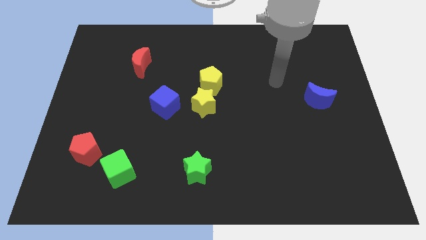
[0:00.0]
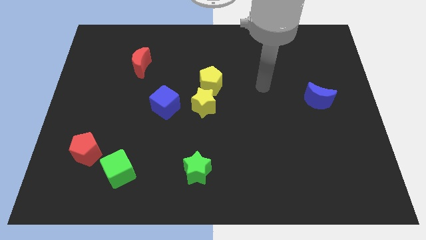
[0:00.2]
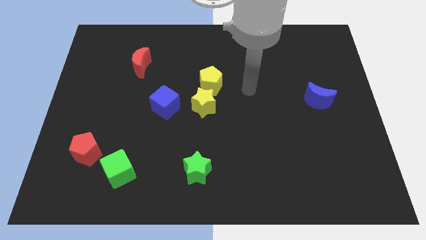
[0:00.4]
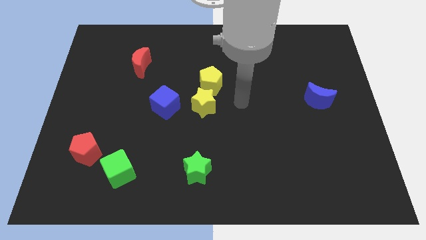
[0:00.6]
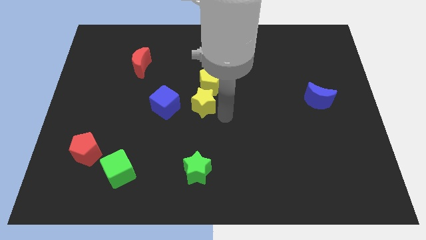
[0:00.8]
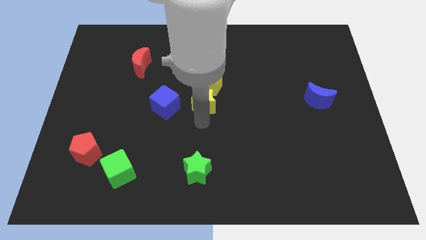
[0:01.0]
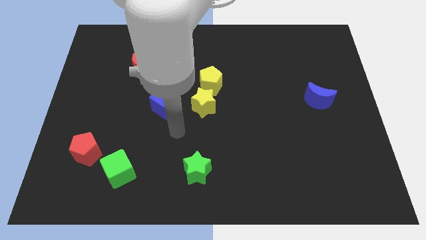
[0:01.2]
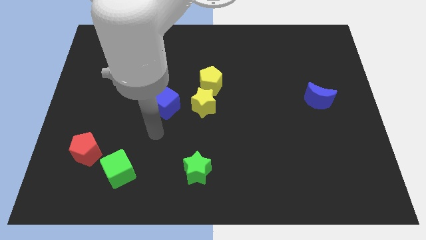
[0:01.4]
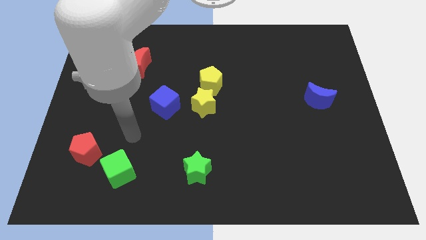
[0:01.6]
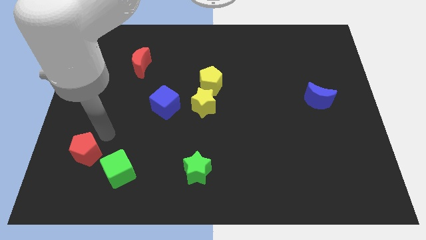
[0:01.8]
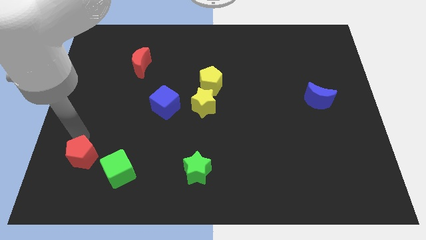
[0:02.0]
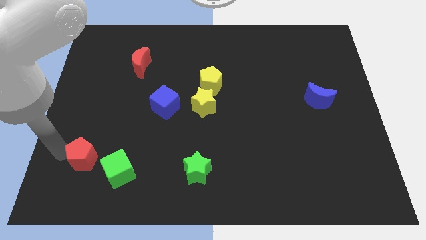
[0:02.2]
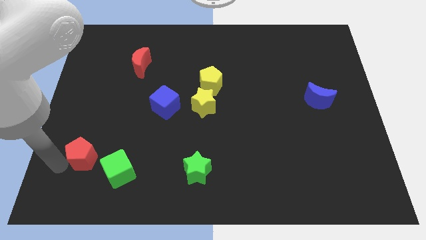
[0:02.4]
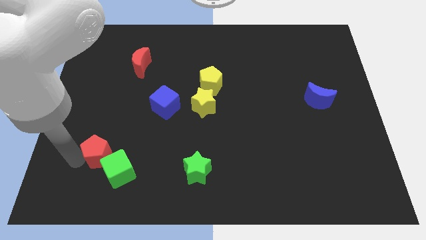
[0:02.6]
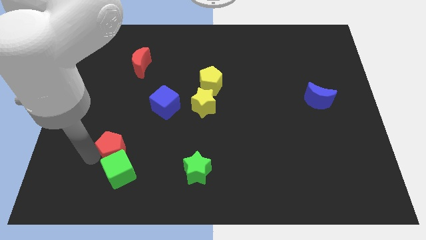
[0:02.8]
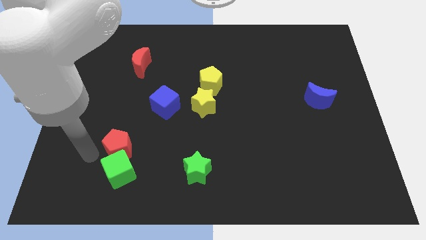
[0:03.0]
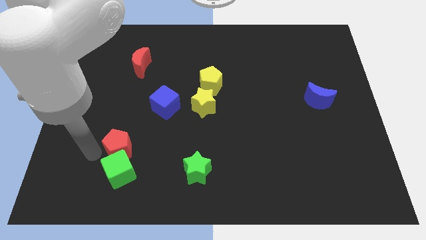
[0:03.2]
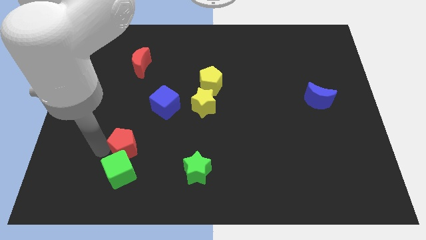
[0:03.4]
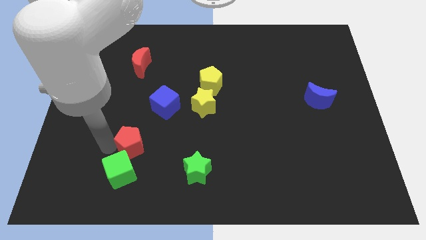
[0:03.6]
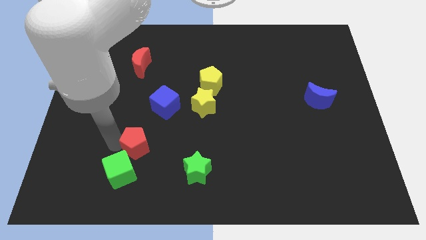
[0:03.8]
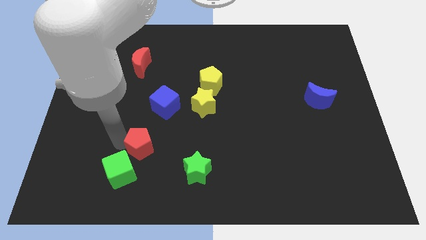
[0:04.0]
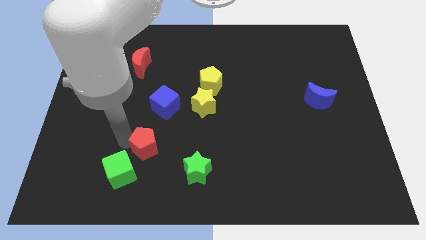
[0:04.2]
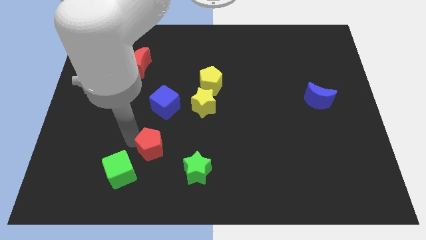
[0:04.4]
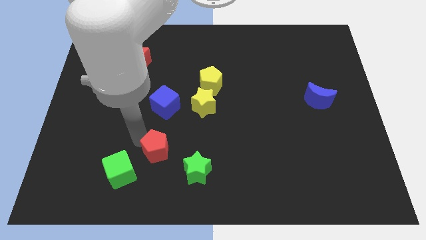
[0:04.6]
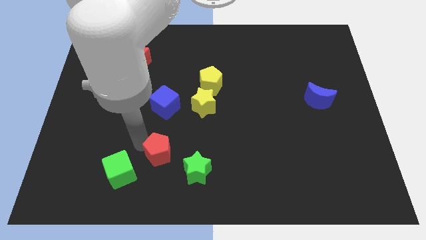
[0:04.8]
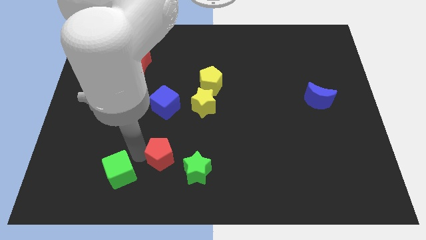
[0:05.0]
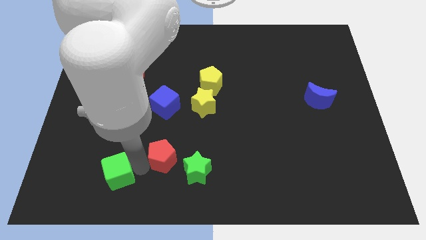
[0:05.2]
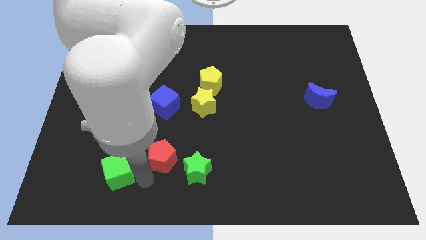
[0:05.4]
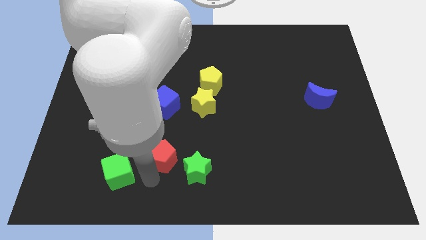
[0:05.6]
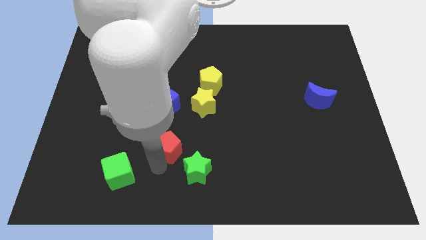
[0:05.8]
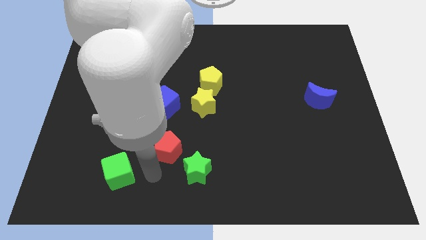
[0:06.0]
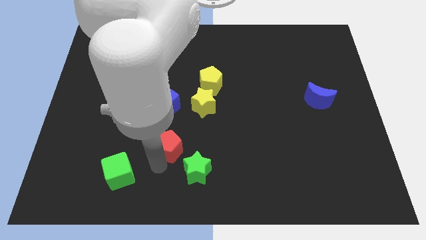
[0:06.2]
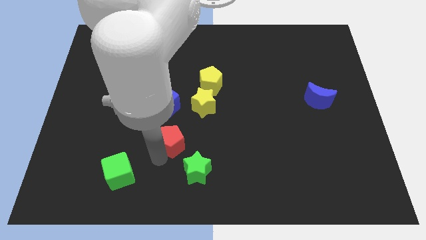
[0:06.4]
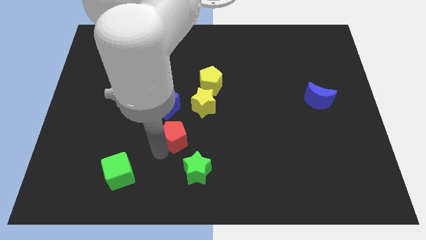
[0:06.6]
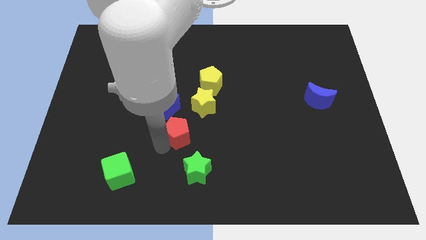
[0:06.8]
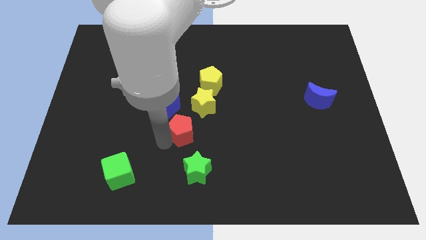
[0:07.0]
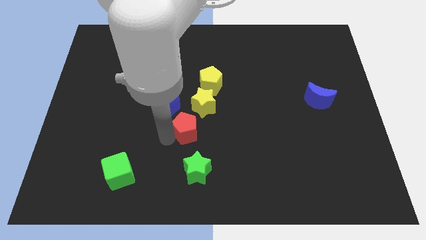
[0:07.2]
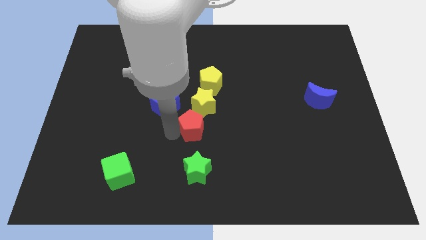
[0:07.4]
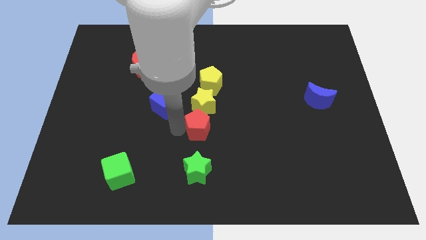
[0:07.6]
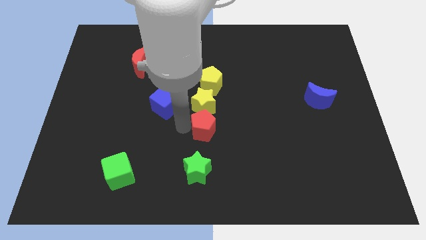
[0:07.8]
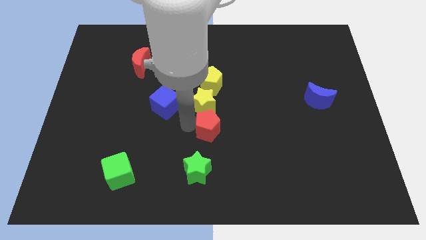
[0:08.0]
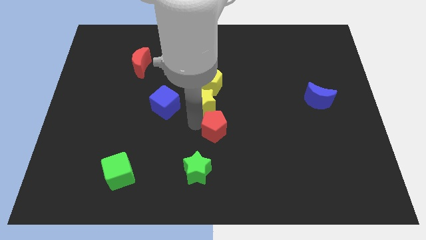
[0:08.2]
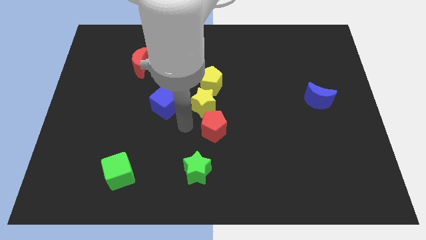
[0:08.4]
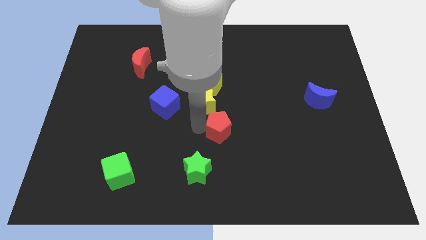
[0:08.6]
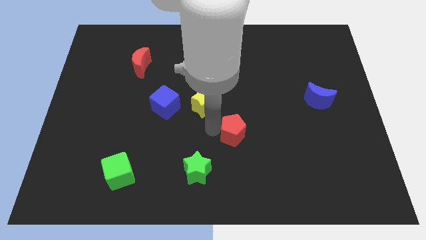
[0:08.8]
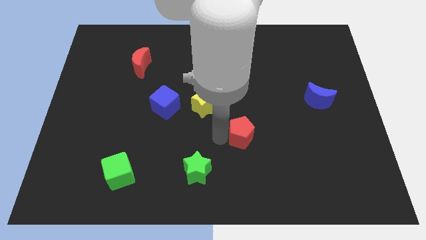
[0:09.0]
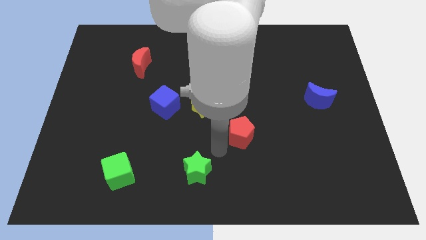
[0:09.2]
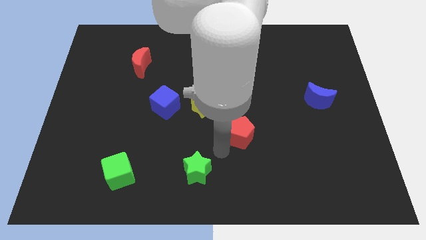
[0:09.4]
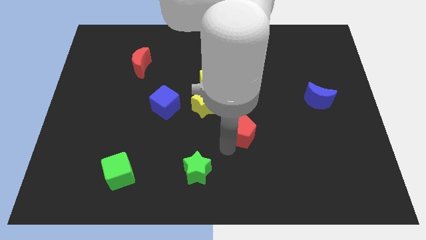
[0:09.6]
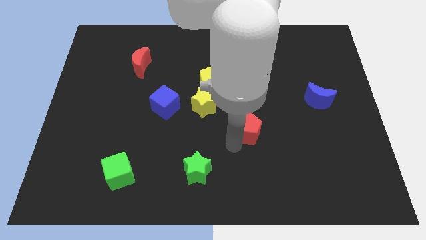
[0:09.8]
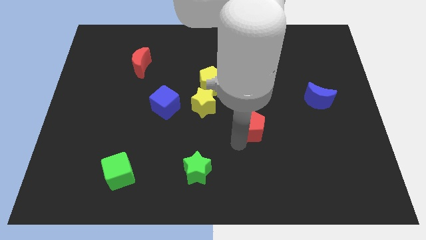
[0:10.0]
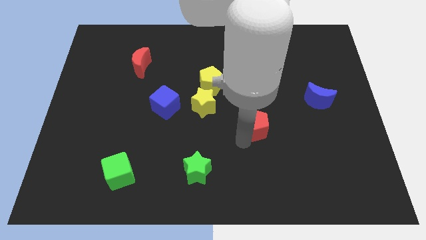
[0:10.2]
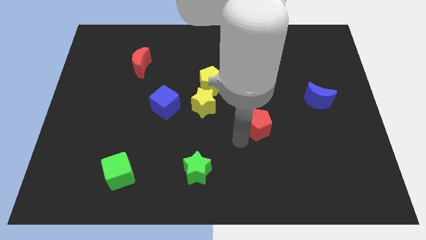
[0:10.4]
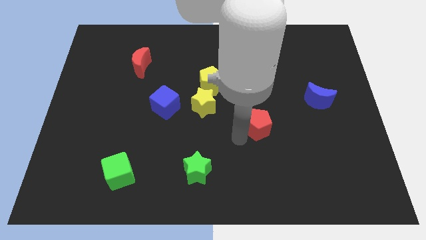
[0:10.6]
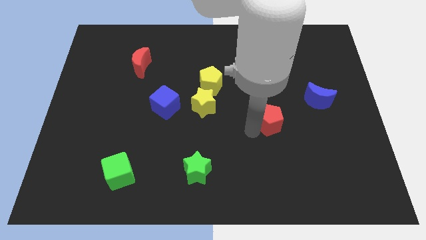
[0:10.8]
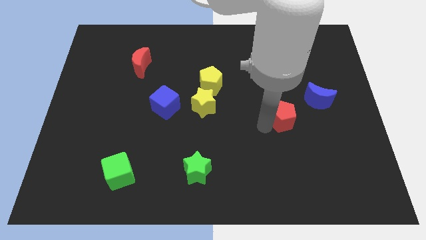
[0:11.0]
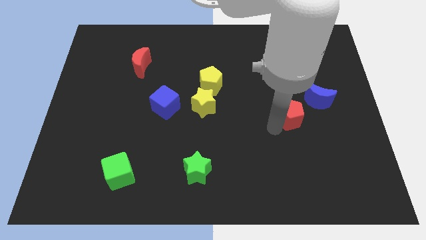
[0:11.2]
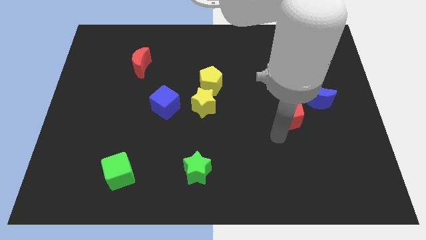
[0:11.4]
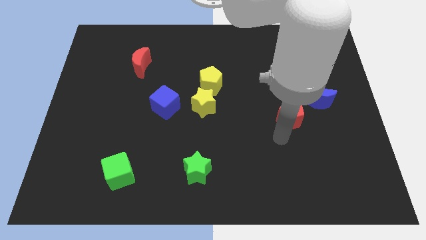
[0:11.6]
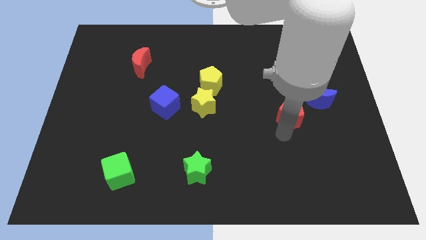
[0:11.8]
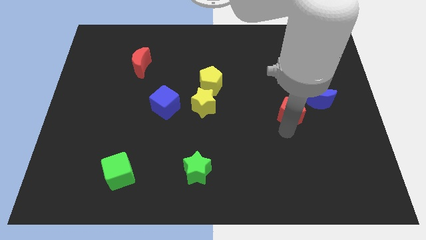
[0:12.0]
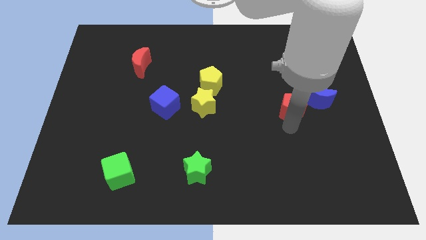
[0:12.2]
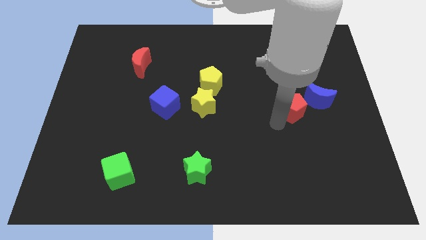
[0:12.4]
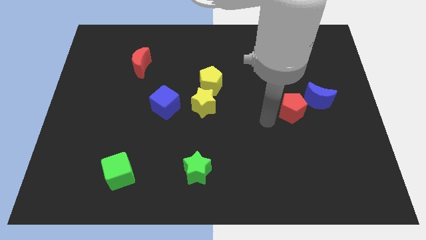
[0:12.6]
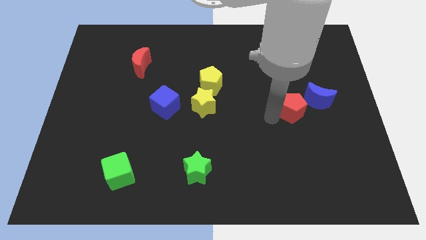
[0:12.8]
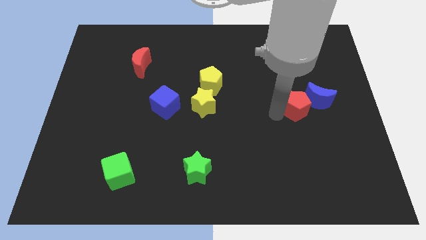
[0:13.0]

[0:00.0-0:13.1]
move the red pentagon to the blue moon

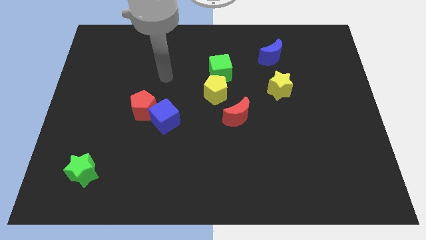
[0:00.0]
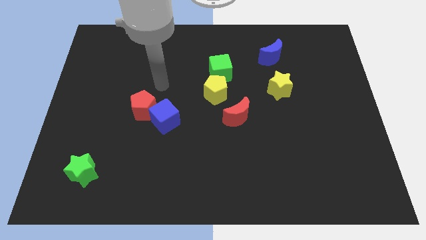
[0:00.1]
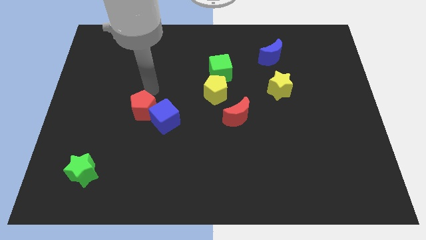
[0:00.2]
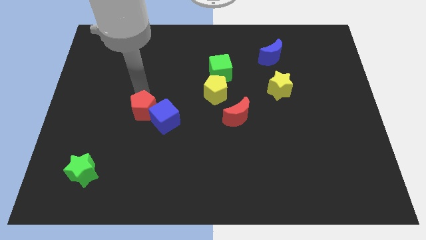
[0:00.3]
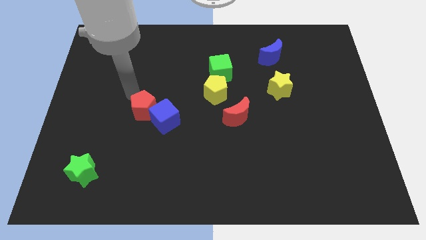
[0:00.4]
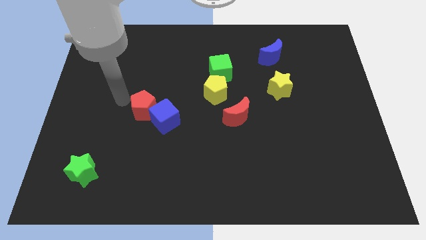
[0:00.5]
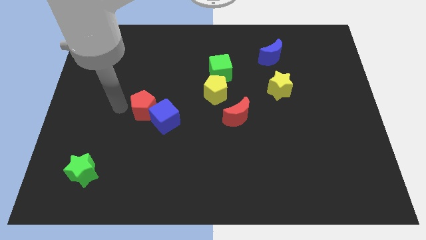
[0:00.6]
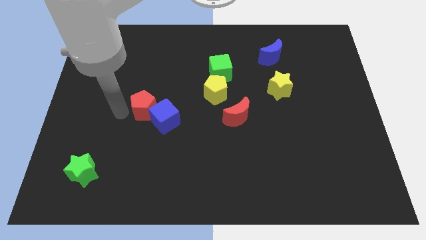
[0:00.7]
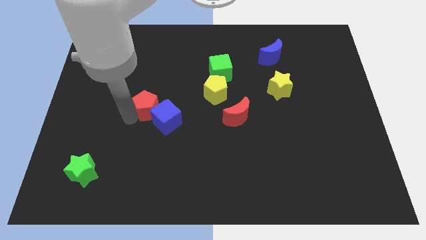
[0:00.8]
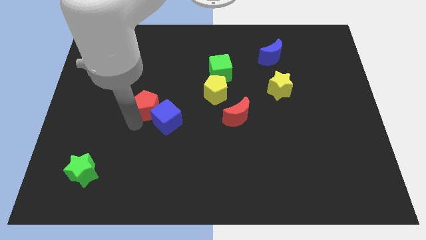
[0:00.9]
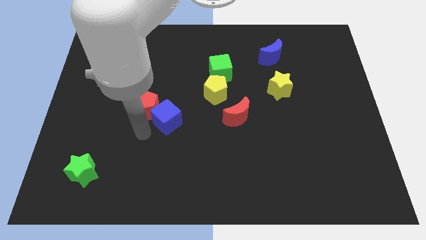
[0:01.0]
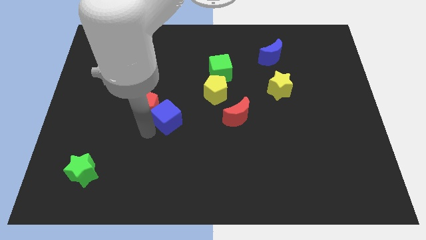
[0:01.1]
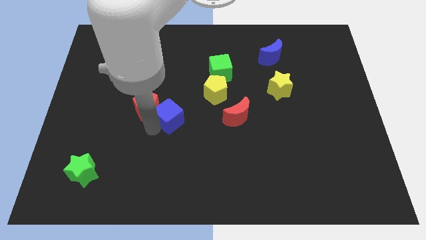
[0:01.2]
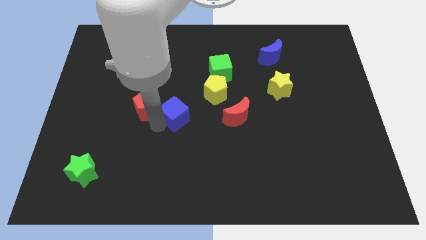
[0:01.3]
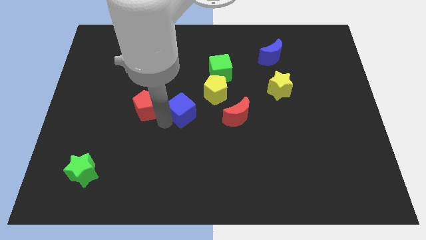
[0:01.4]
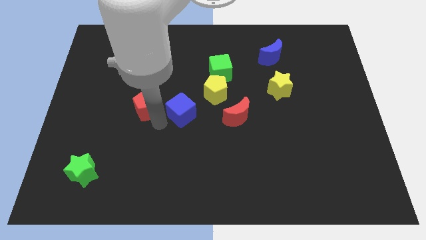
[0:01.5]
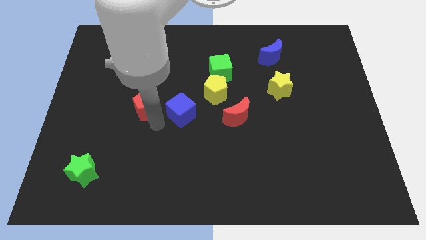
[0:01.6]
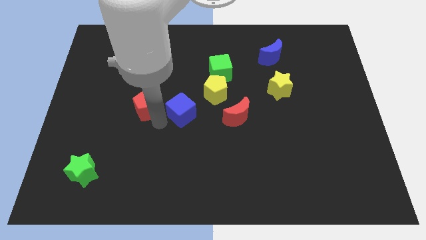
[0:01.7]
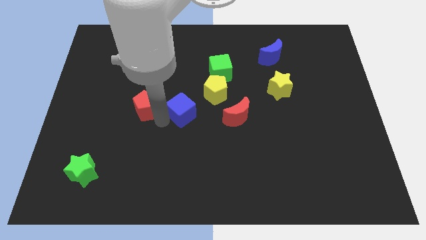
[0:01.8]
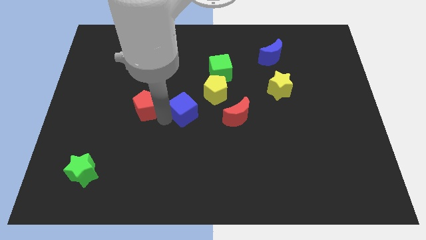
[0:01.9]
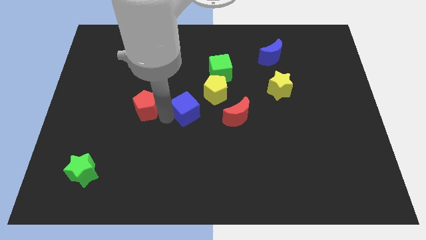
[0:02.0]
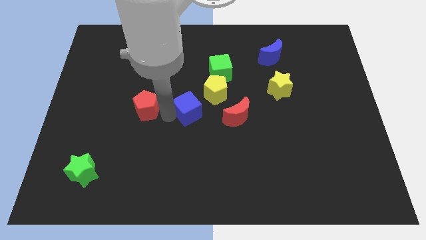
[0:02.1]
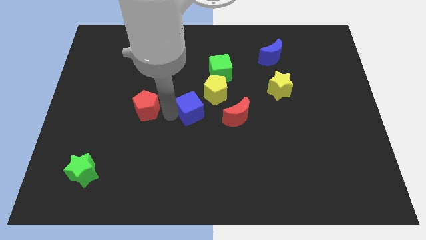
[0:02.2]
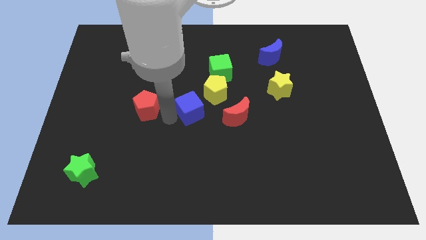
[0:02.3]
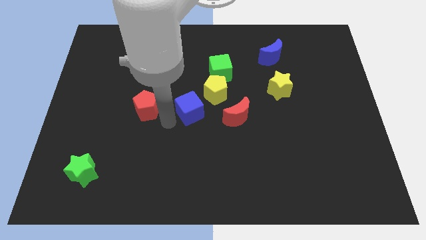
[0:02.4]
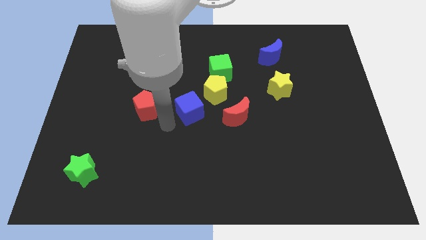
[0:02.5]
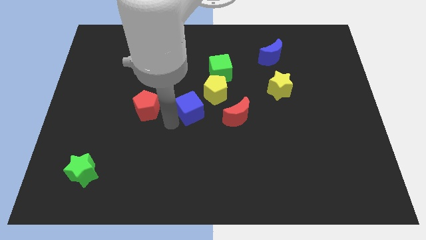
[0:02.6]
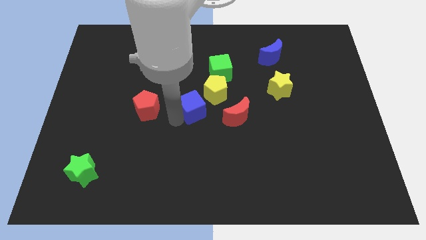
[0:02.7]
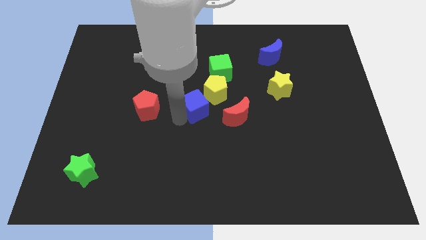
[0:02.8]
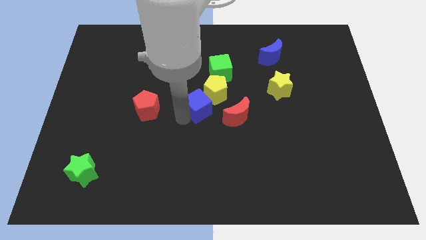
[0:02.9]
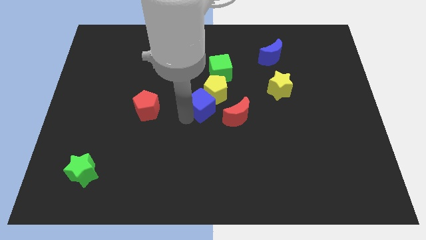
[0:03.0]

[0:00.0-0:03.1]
move the blue cube close to the yellow pentagon
